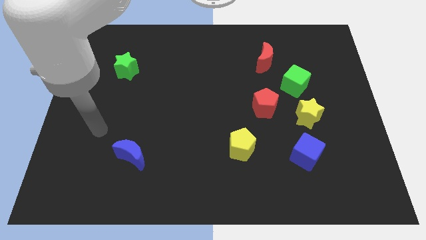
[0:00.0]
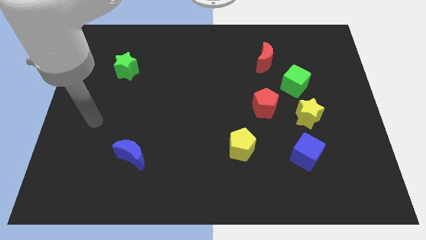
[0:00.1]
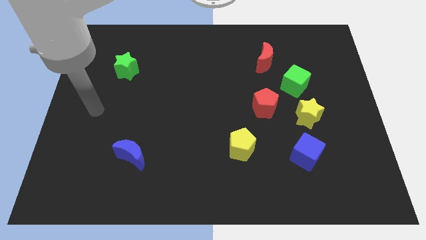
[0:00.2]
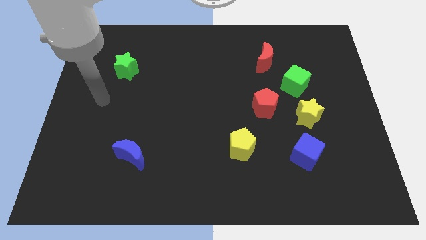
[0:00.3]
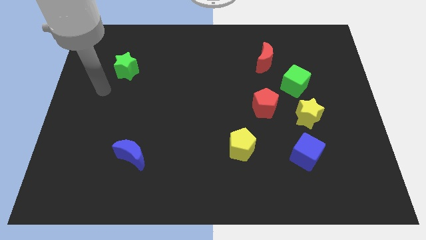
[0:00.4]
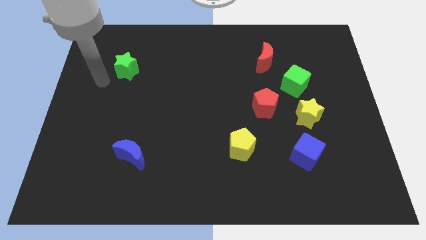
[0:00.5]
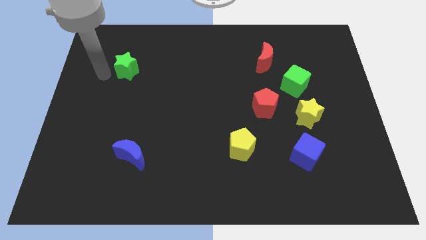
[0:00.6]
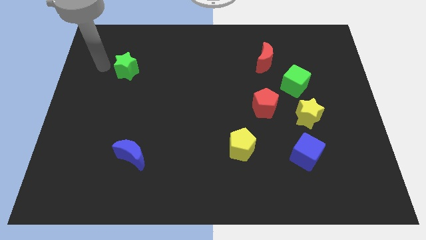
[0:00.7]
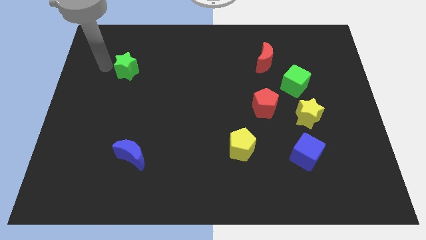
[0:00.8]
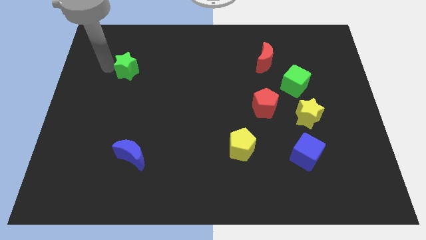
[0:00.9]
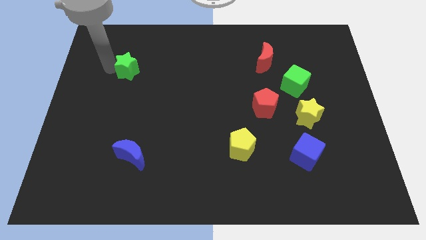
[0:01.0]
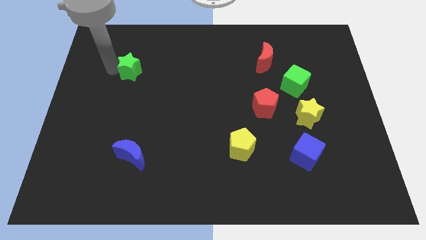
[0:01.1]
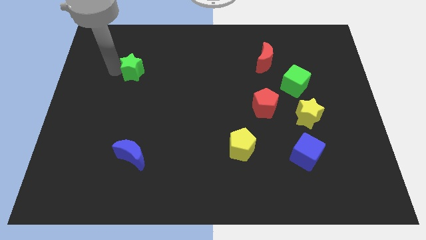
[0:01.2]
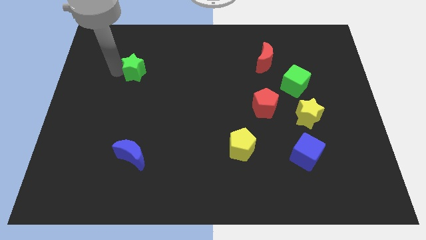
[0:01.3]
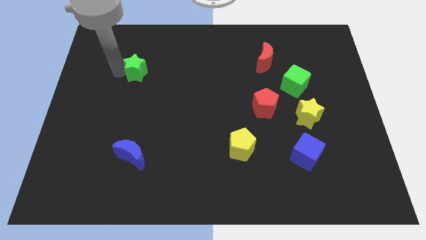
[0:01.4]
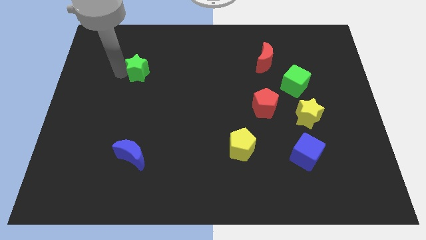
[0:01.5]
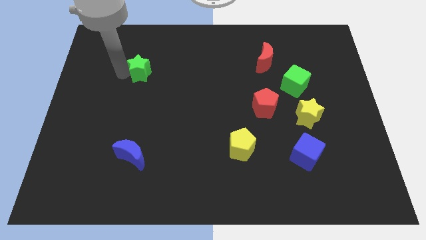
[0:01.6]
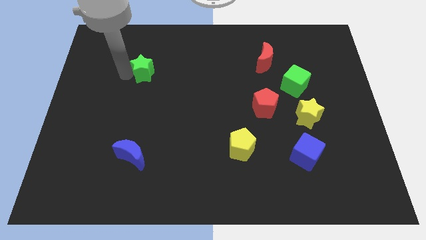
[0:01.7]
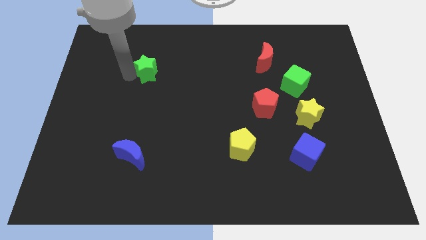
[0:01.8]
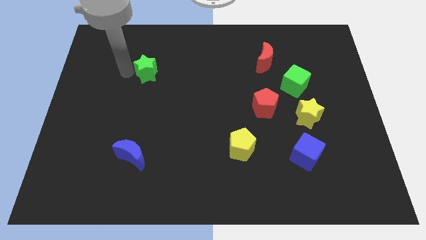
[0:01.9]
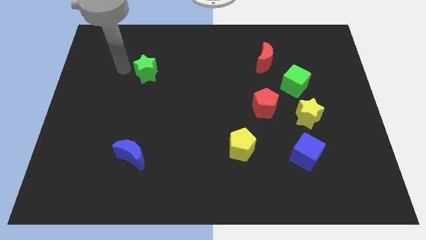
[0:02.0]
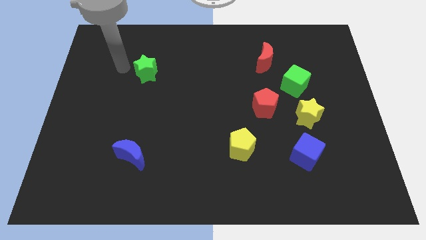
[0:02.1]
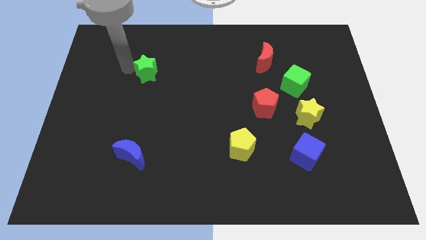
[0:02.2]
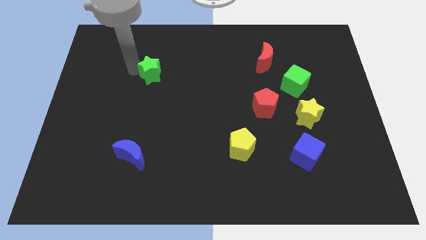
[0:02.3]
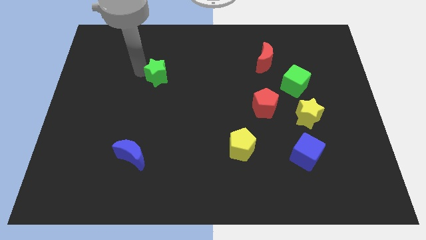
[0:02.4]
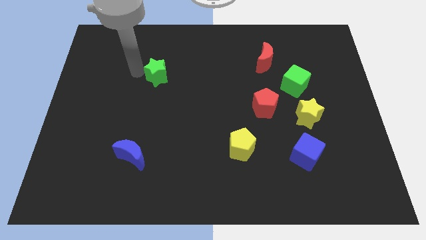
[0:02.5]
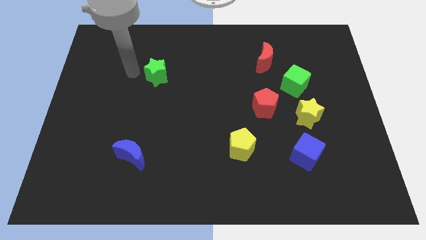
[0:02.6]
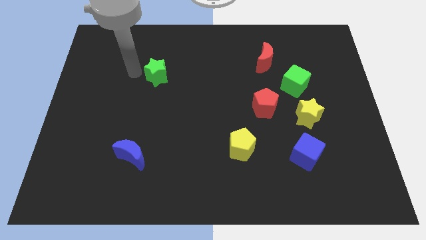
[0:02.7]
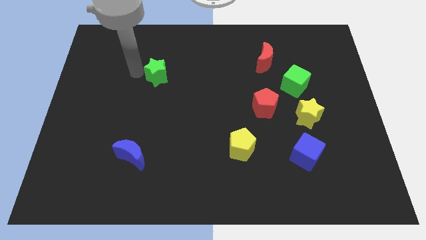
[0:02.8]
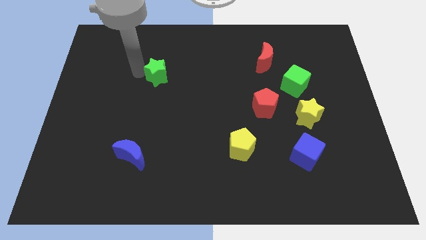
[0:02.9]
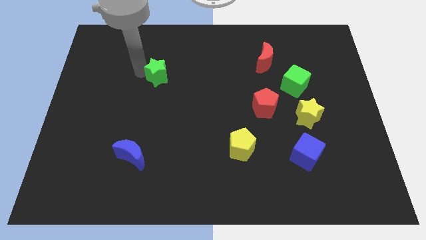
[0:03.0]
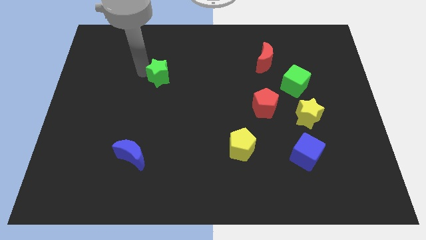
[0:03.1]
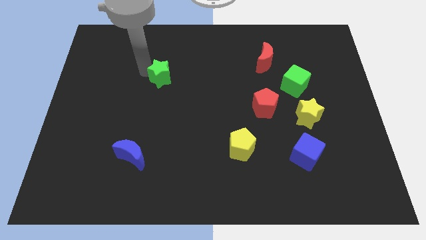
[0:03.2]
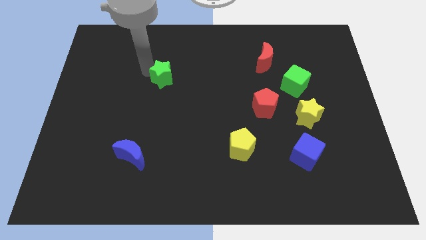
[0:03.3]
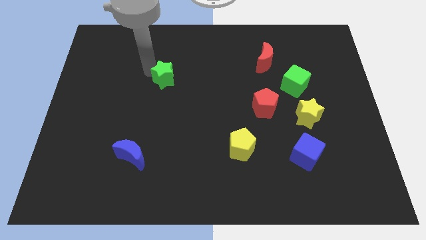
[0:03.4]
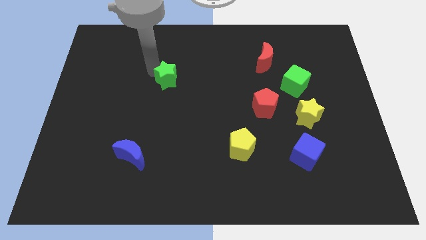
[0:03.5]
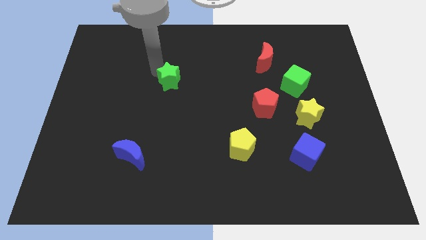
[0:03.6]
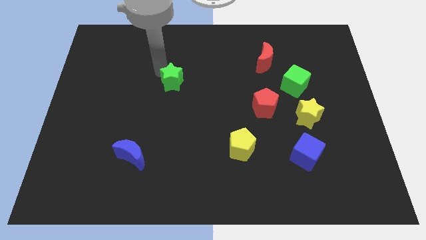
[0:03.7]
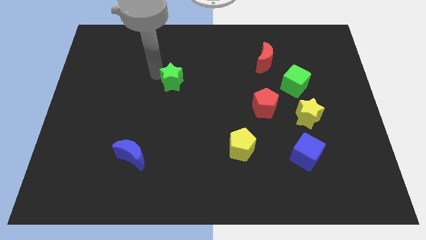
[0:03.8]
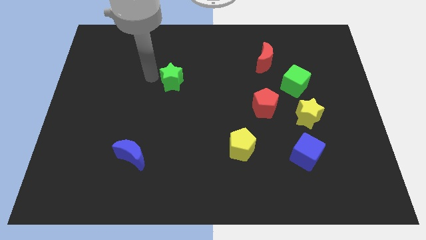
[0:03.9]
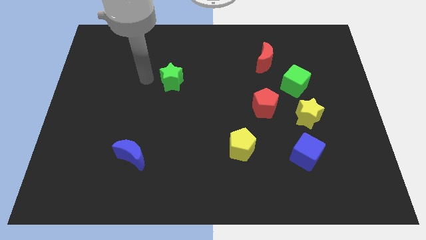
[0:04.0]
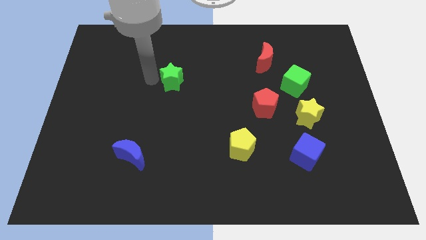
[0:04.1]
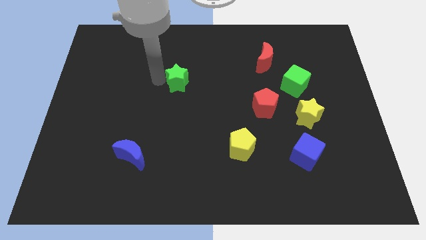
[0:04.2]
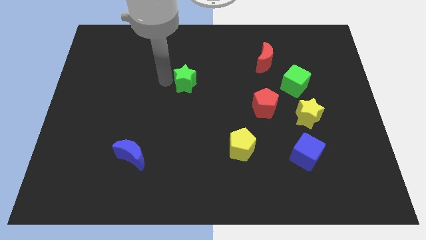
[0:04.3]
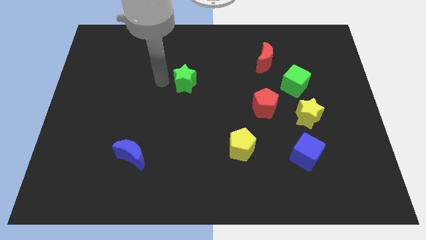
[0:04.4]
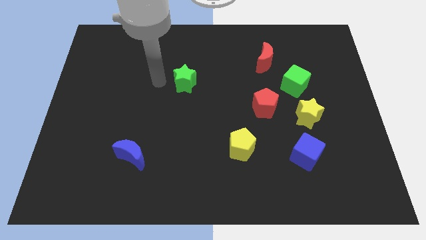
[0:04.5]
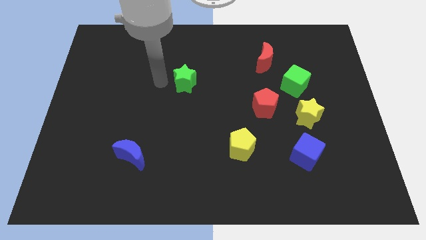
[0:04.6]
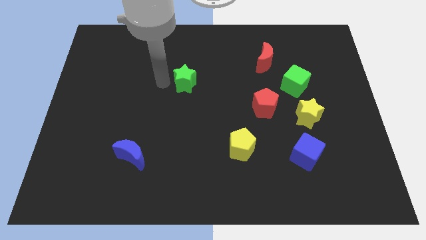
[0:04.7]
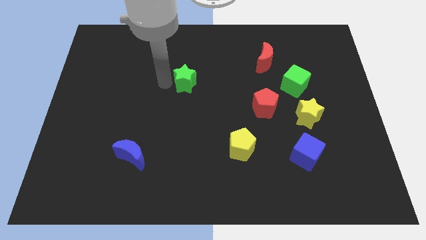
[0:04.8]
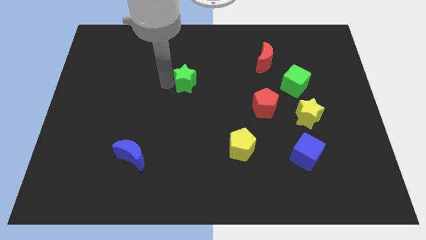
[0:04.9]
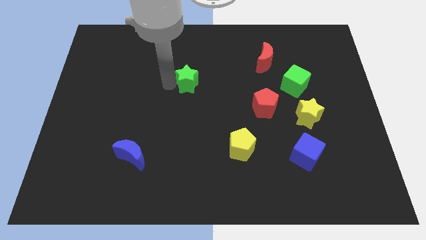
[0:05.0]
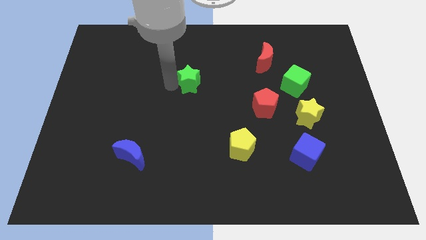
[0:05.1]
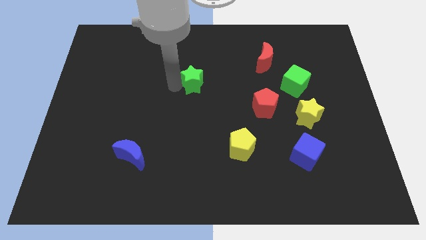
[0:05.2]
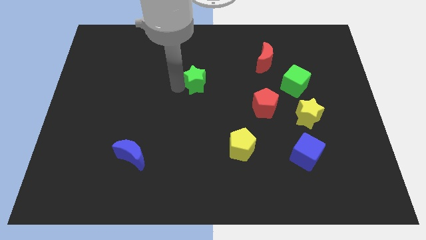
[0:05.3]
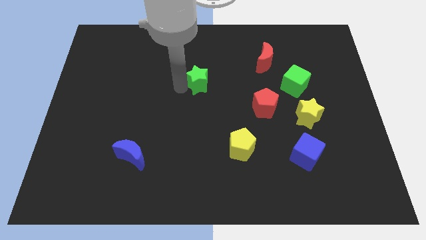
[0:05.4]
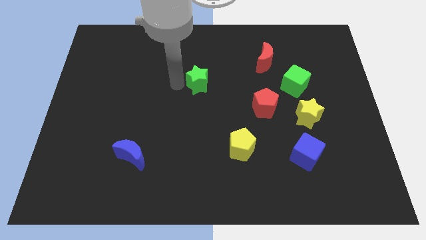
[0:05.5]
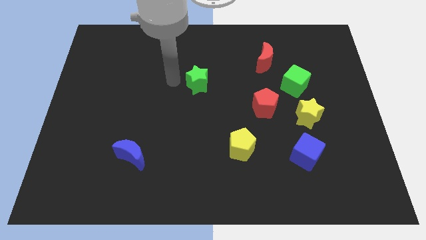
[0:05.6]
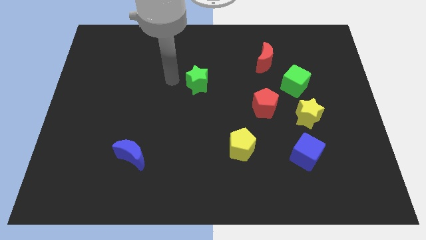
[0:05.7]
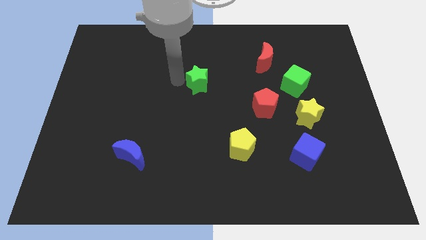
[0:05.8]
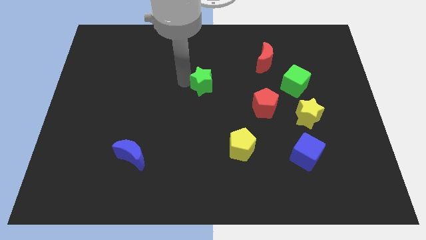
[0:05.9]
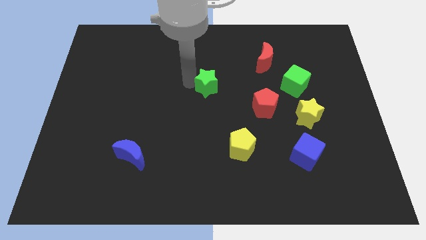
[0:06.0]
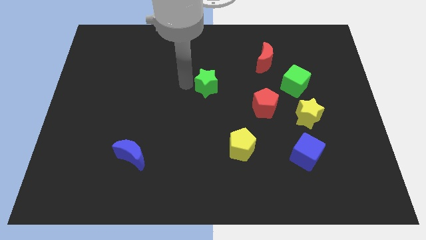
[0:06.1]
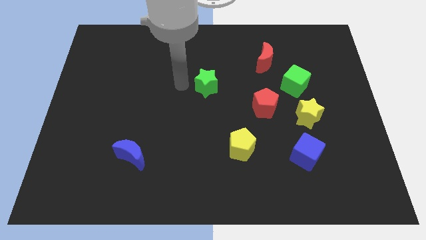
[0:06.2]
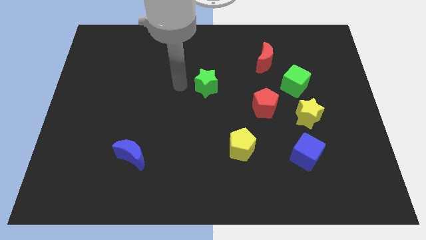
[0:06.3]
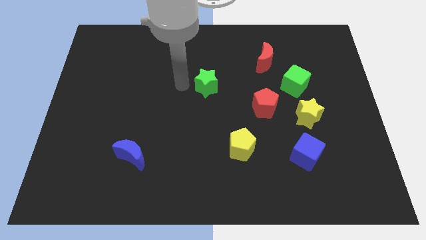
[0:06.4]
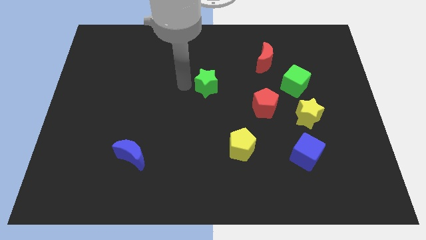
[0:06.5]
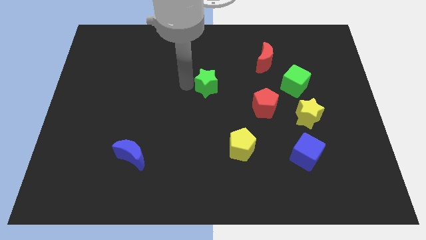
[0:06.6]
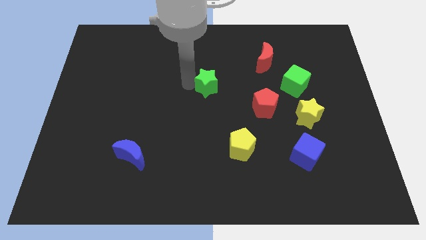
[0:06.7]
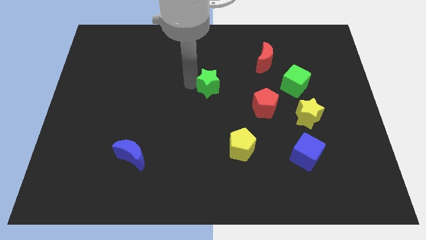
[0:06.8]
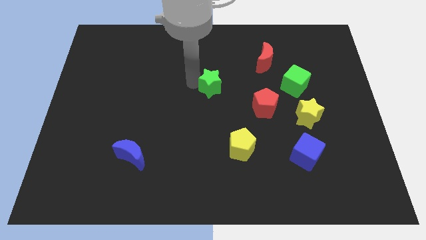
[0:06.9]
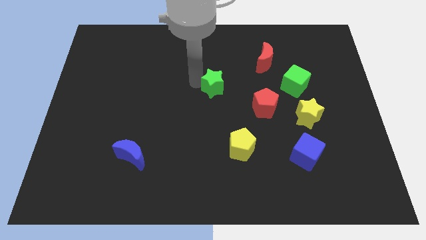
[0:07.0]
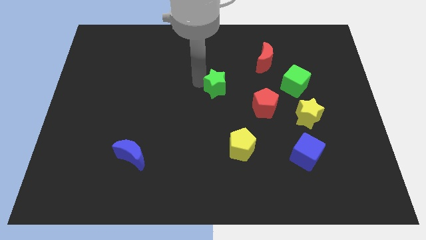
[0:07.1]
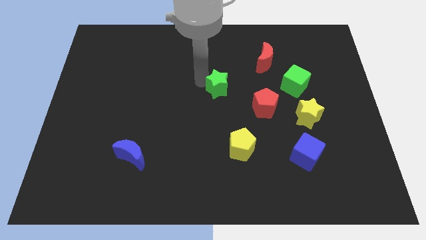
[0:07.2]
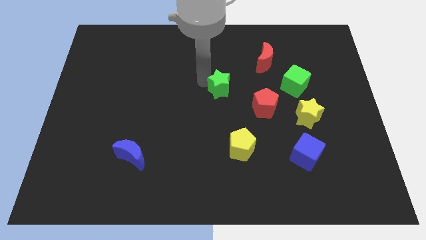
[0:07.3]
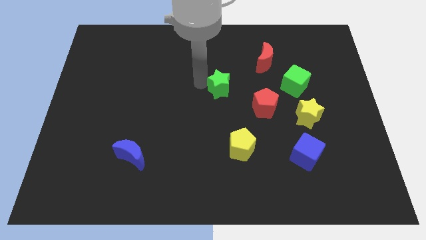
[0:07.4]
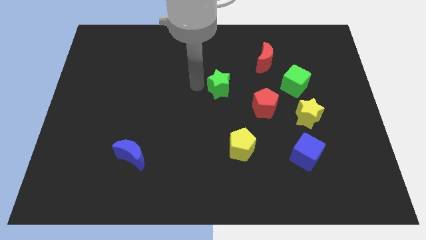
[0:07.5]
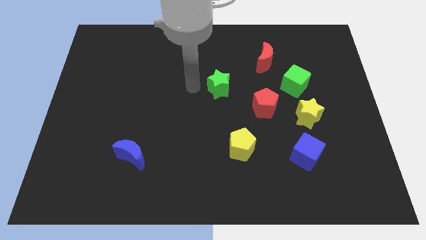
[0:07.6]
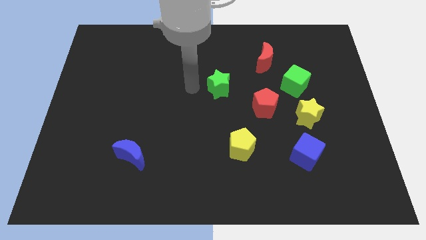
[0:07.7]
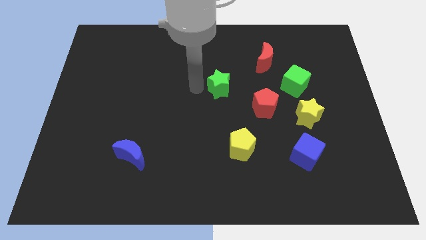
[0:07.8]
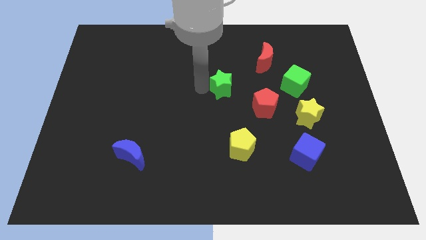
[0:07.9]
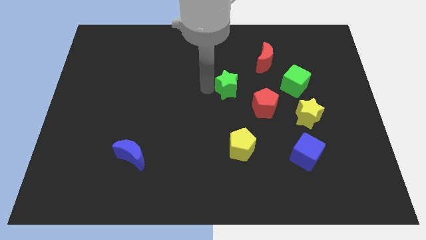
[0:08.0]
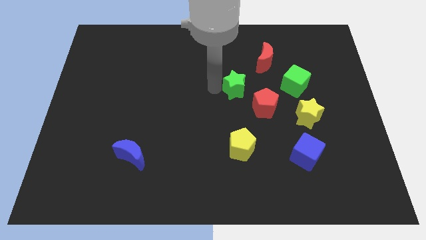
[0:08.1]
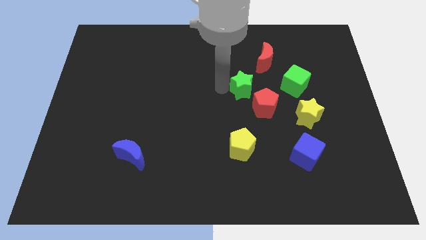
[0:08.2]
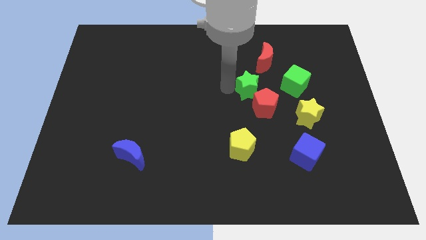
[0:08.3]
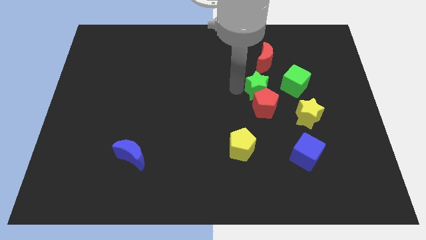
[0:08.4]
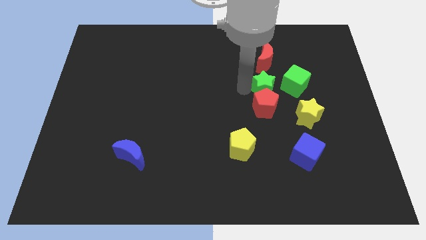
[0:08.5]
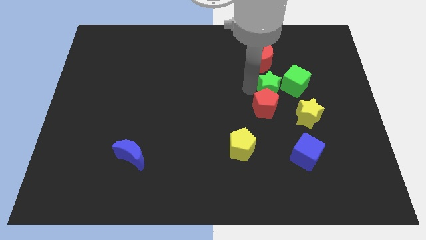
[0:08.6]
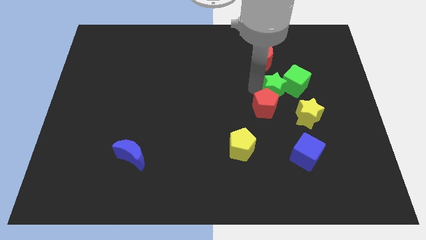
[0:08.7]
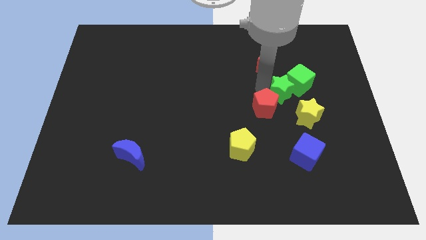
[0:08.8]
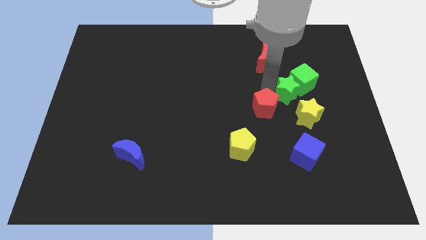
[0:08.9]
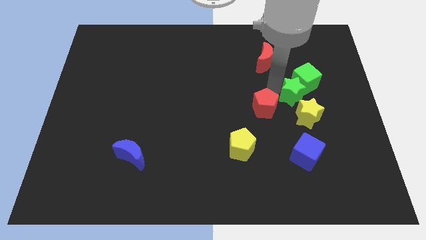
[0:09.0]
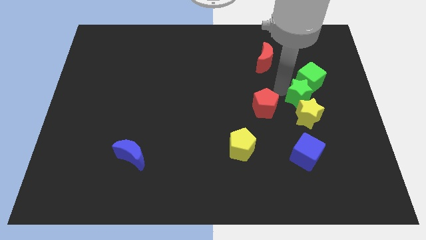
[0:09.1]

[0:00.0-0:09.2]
put the green star to the top side of the blue cube
